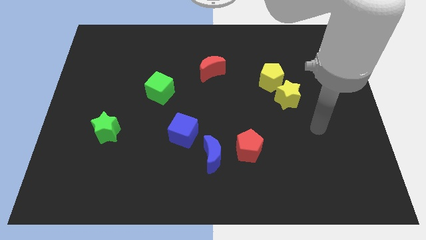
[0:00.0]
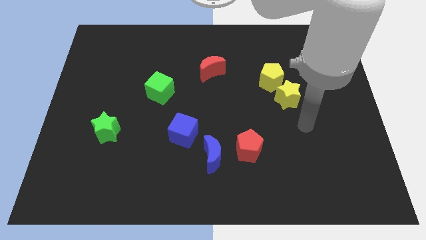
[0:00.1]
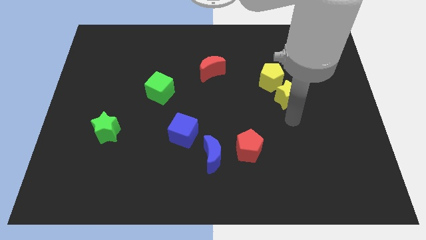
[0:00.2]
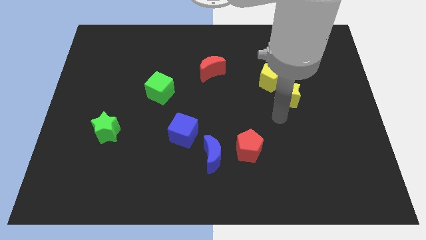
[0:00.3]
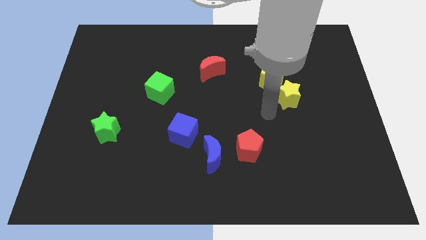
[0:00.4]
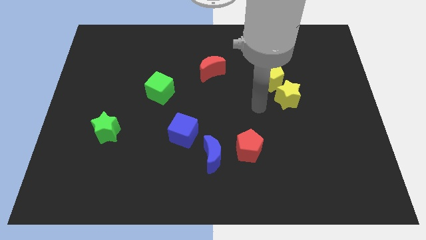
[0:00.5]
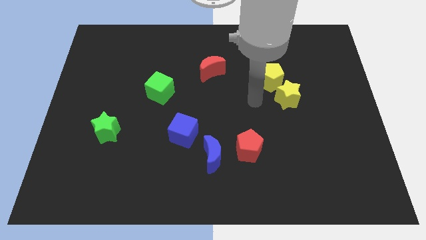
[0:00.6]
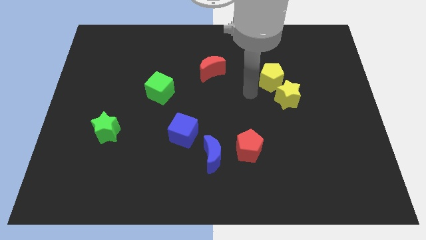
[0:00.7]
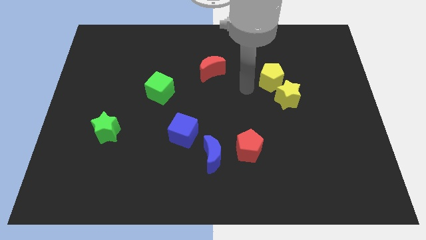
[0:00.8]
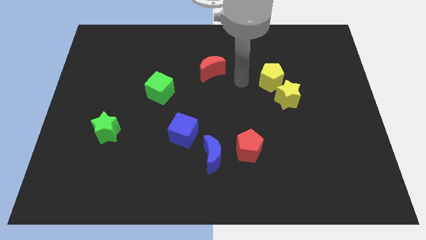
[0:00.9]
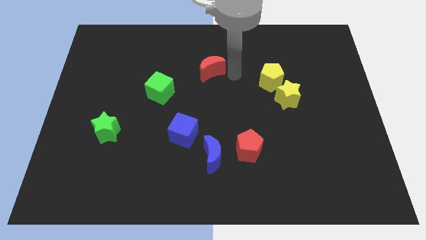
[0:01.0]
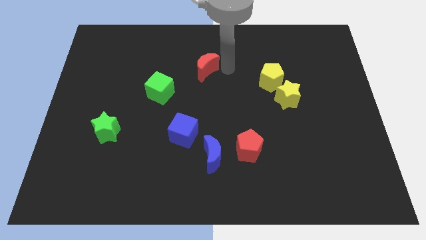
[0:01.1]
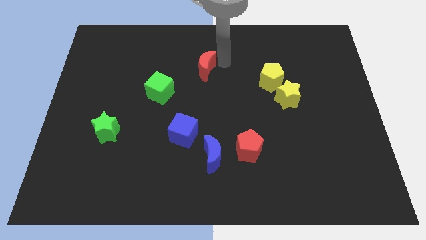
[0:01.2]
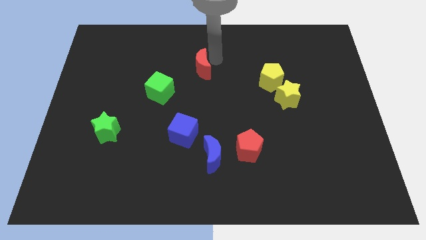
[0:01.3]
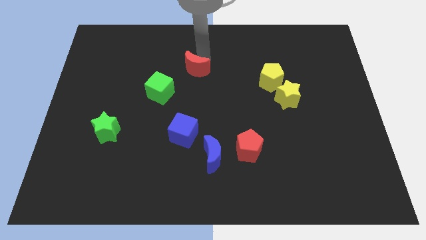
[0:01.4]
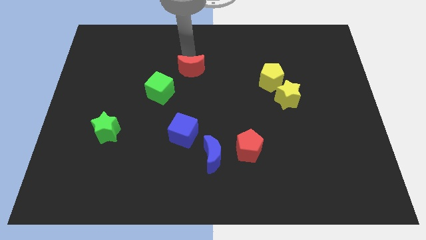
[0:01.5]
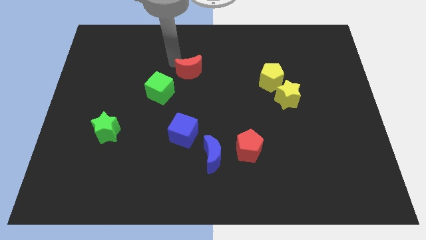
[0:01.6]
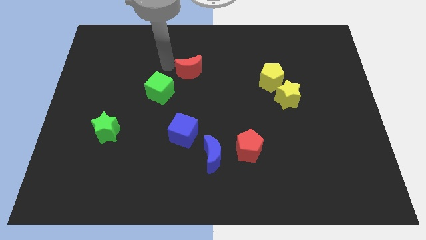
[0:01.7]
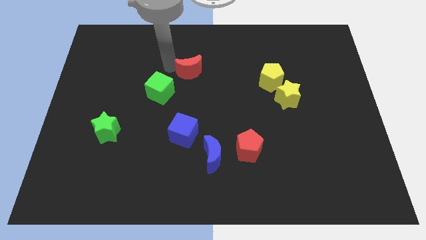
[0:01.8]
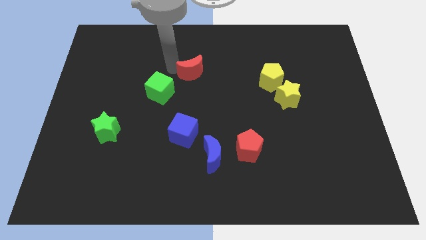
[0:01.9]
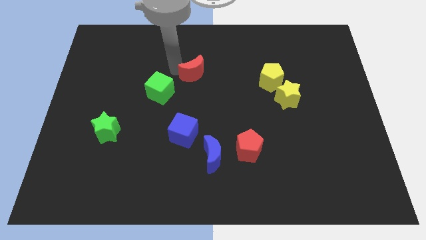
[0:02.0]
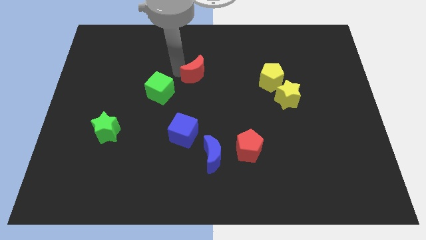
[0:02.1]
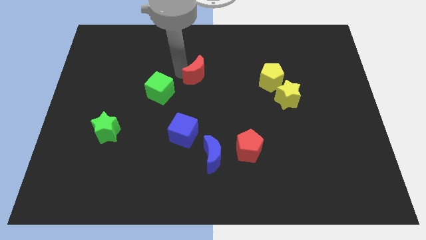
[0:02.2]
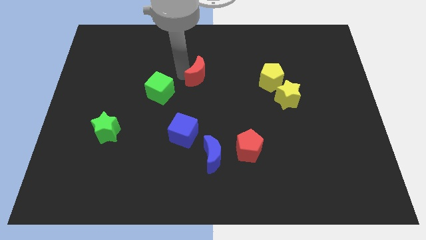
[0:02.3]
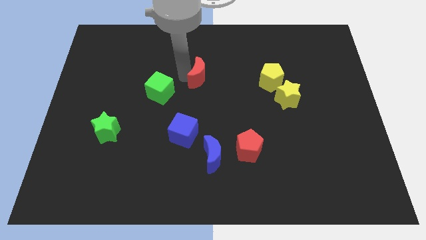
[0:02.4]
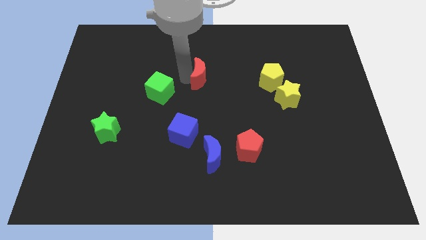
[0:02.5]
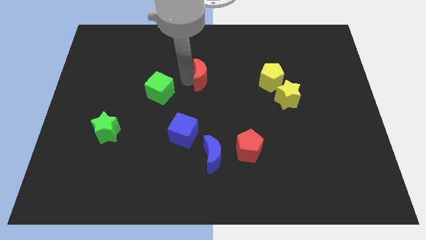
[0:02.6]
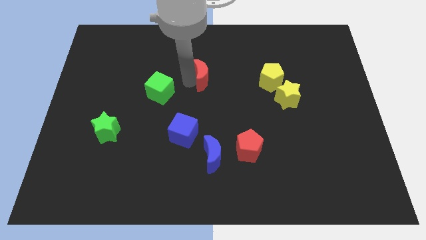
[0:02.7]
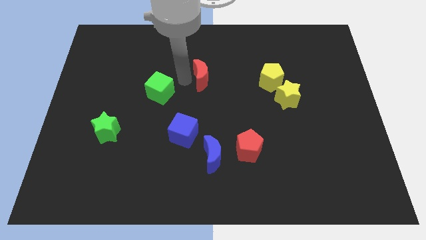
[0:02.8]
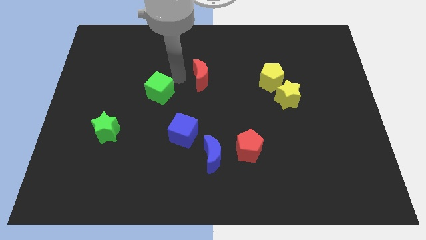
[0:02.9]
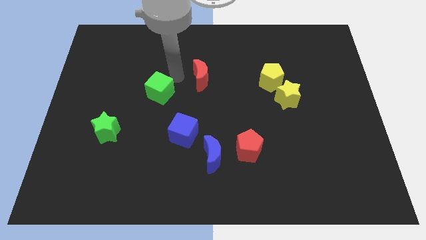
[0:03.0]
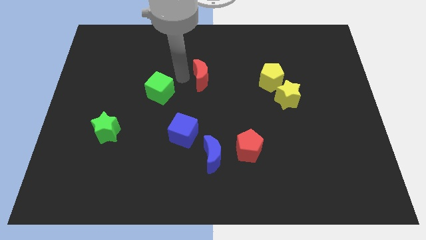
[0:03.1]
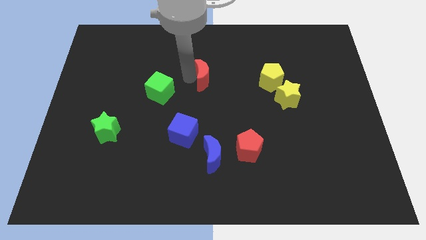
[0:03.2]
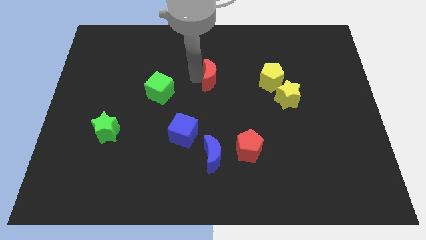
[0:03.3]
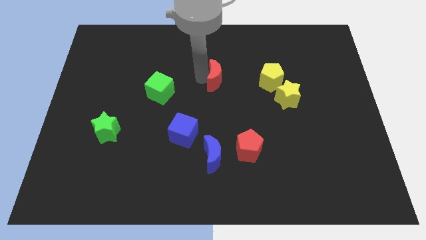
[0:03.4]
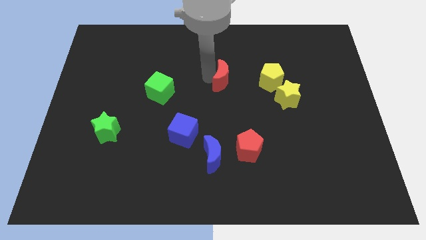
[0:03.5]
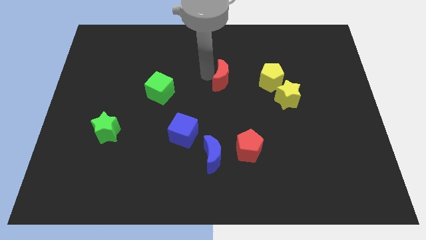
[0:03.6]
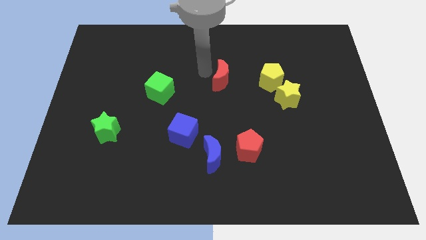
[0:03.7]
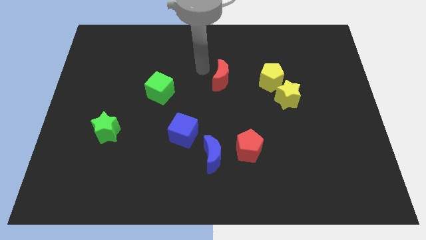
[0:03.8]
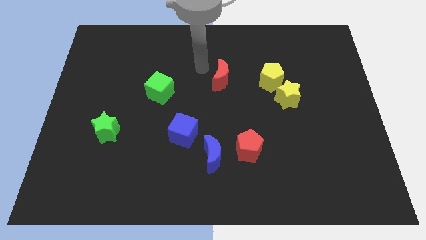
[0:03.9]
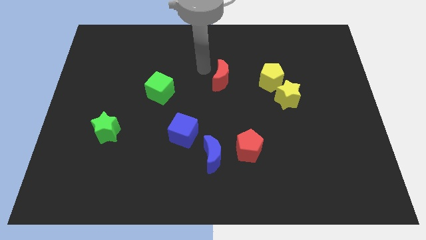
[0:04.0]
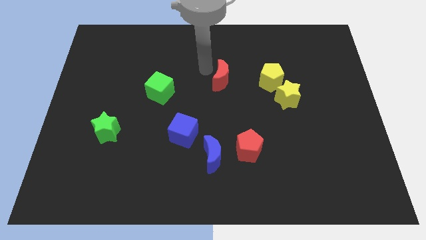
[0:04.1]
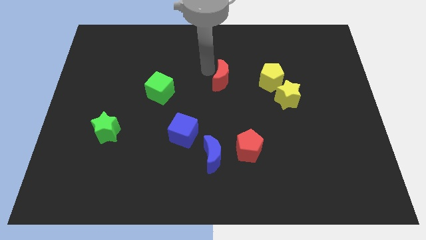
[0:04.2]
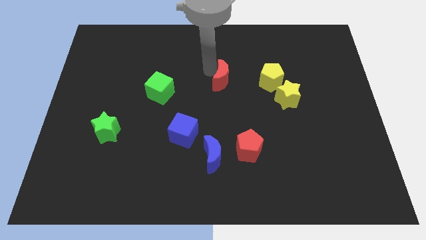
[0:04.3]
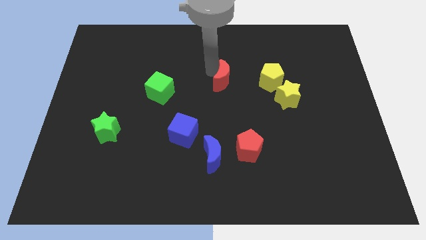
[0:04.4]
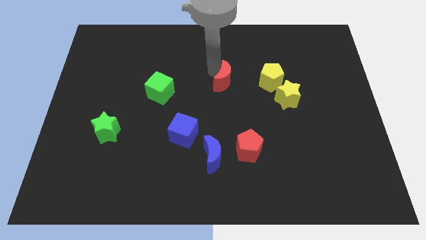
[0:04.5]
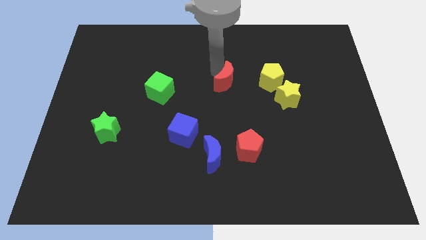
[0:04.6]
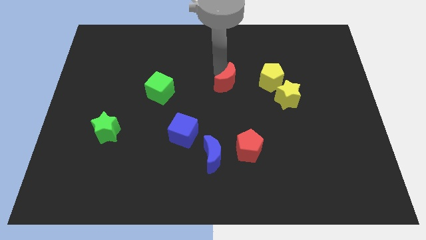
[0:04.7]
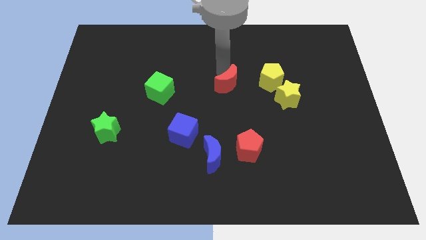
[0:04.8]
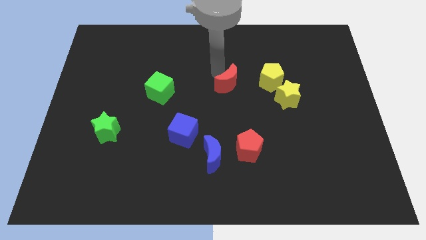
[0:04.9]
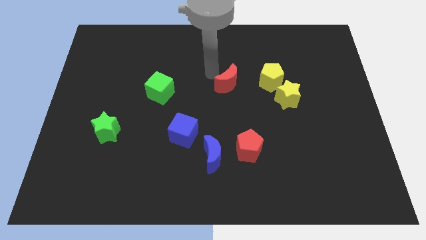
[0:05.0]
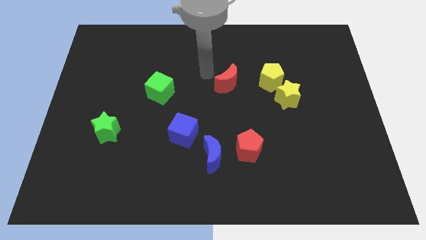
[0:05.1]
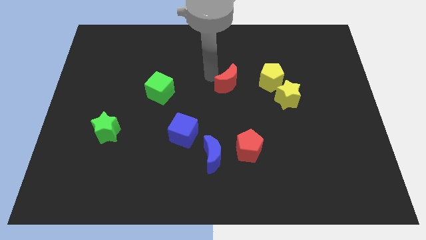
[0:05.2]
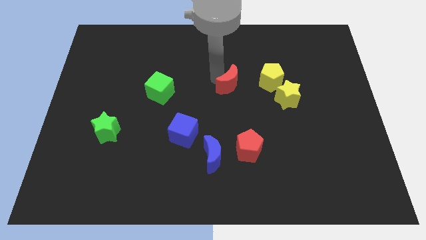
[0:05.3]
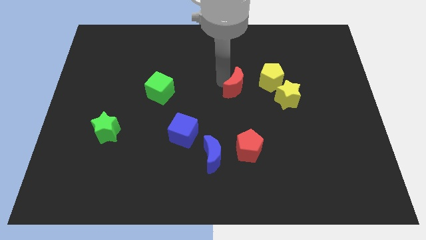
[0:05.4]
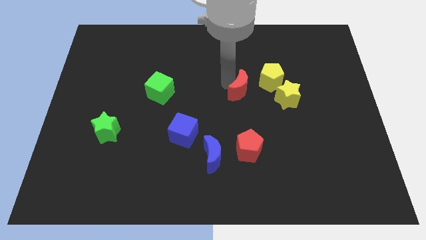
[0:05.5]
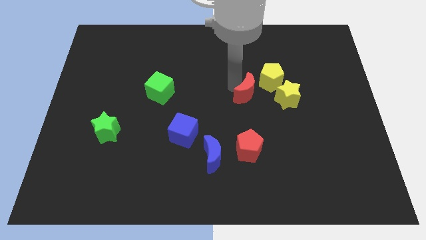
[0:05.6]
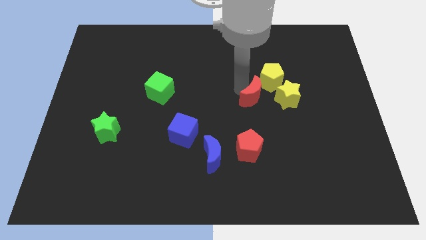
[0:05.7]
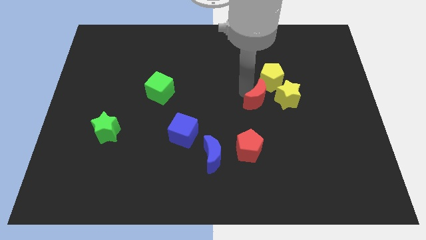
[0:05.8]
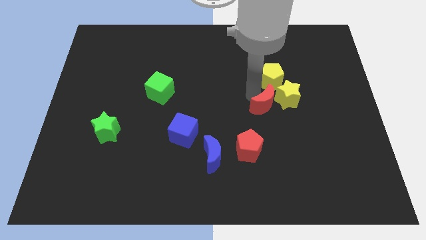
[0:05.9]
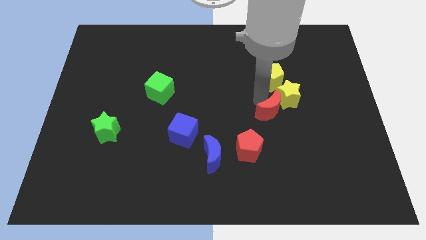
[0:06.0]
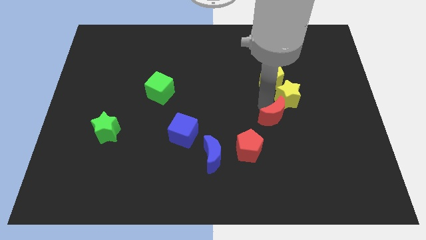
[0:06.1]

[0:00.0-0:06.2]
move the red moon down and right

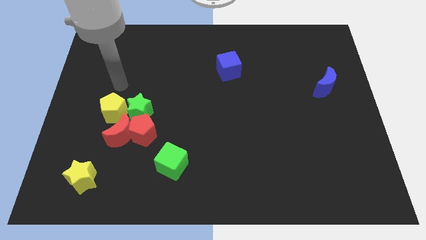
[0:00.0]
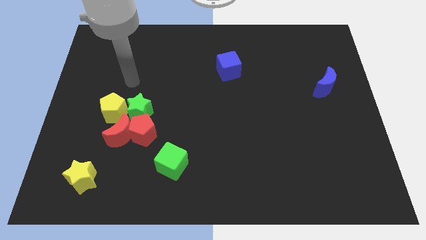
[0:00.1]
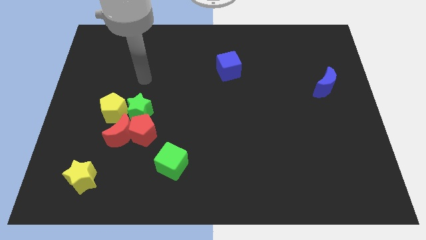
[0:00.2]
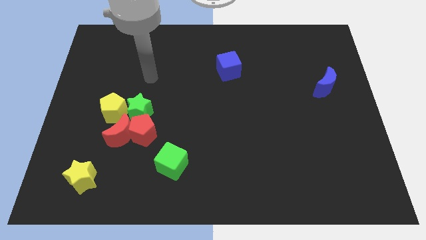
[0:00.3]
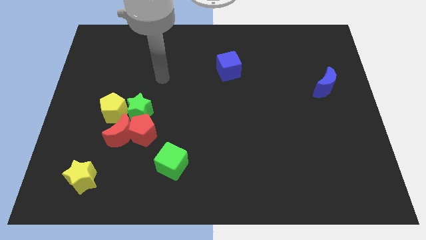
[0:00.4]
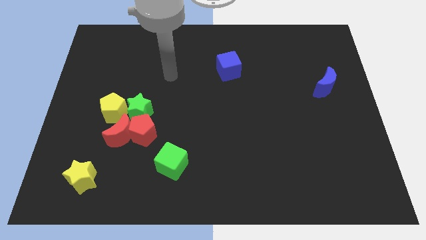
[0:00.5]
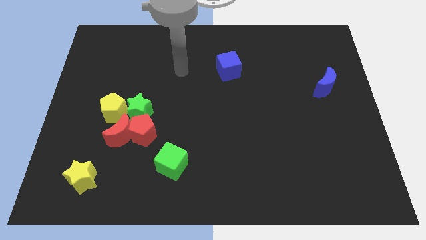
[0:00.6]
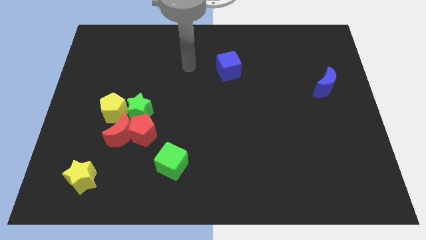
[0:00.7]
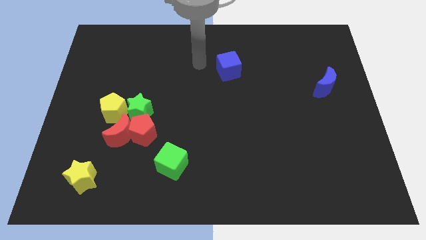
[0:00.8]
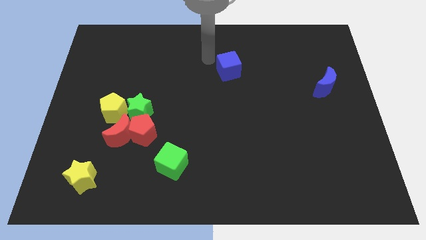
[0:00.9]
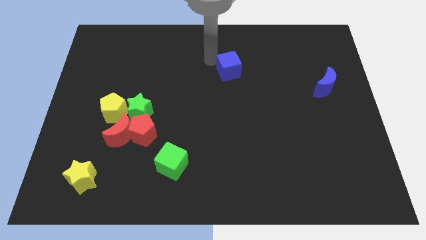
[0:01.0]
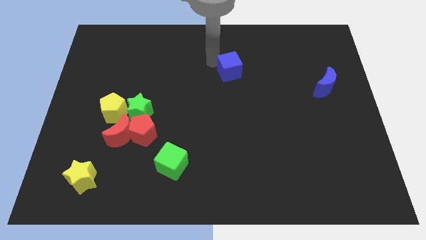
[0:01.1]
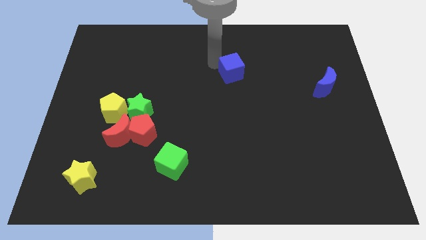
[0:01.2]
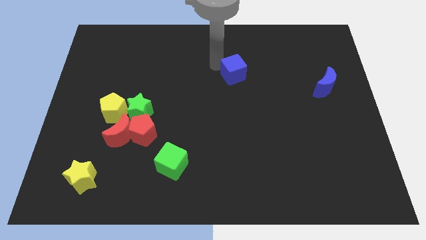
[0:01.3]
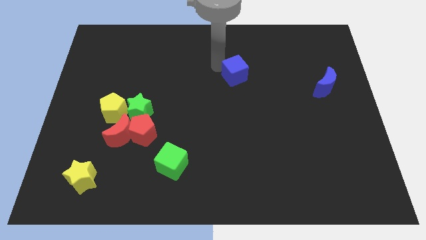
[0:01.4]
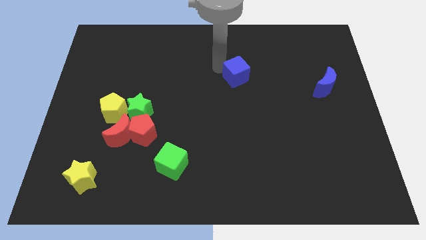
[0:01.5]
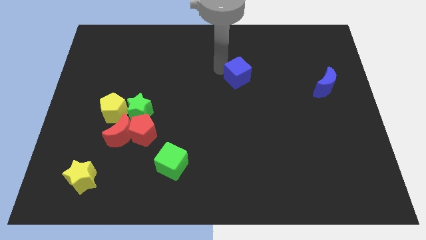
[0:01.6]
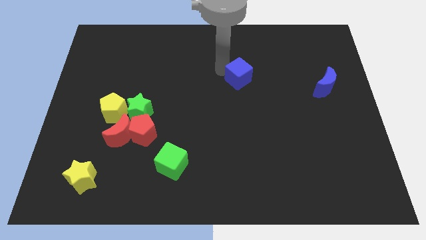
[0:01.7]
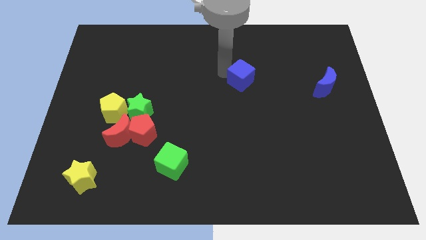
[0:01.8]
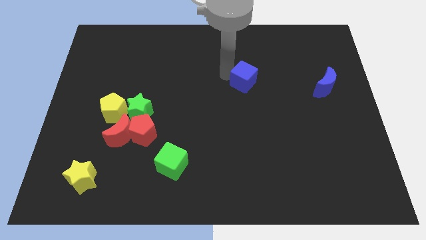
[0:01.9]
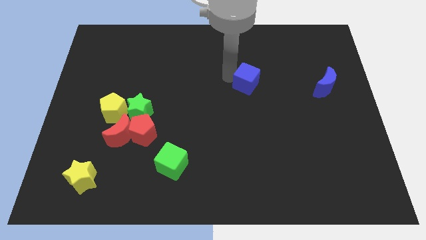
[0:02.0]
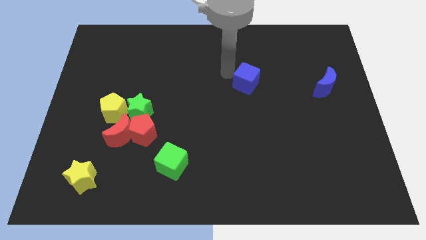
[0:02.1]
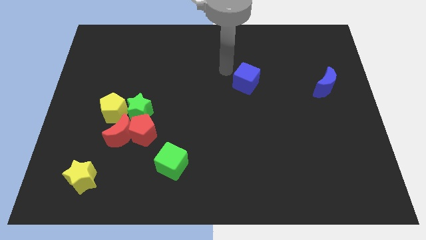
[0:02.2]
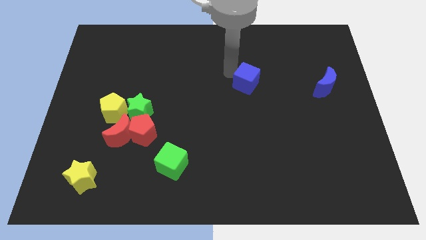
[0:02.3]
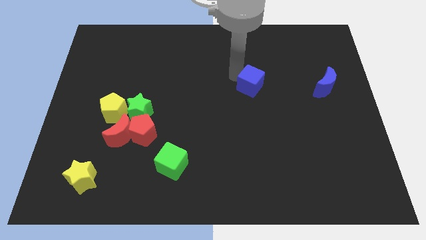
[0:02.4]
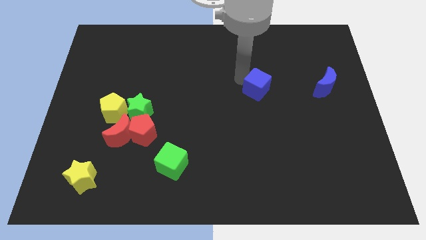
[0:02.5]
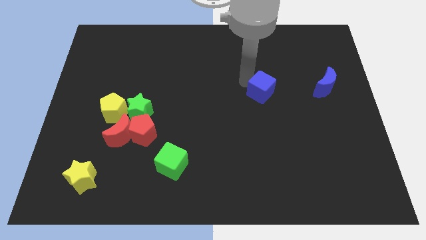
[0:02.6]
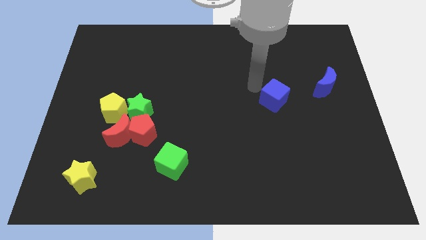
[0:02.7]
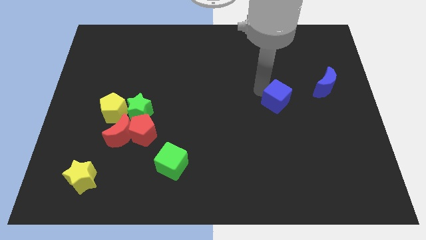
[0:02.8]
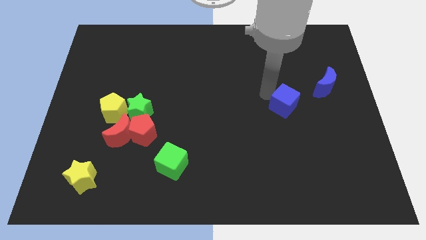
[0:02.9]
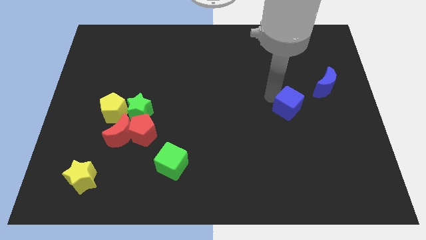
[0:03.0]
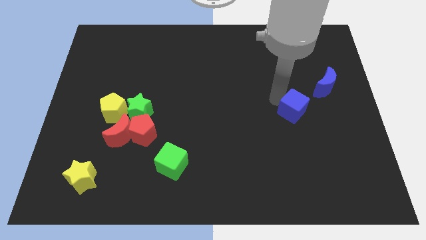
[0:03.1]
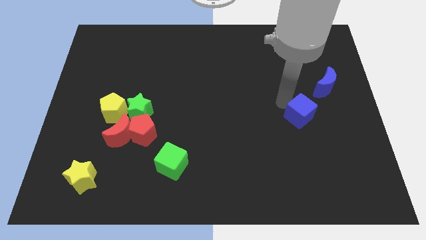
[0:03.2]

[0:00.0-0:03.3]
push the blue cube downwards and to the right
